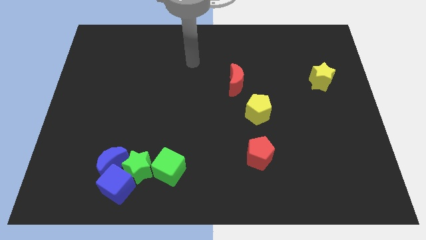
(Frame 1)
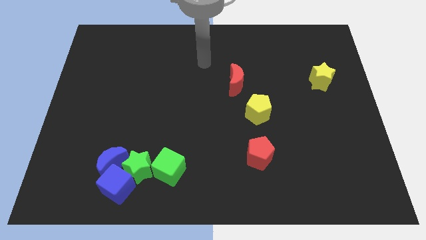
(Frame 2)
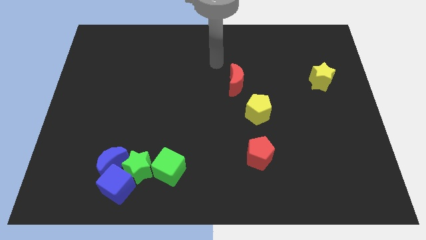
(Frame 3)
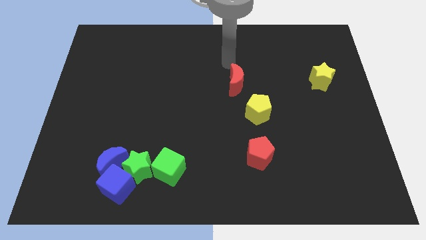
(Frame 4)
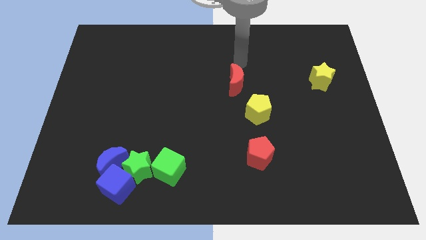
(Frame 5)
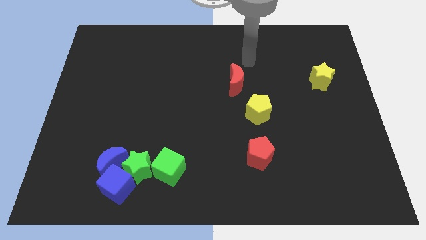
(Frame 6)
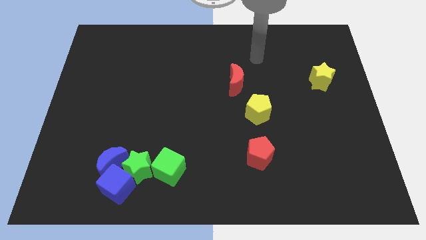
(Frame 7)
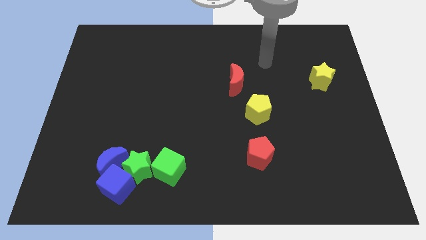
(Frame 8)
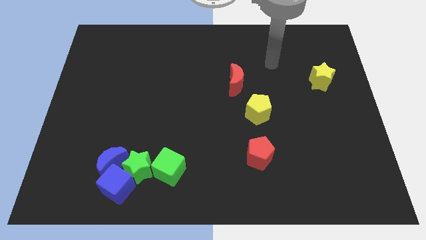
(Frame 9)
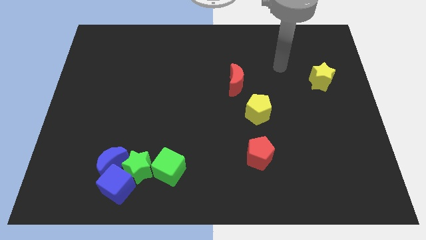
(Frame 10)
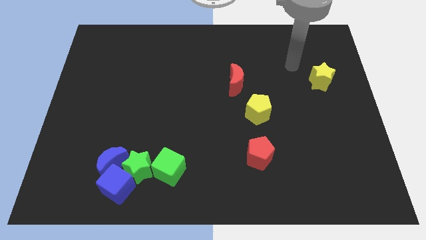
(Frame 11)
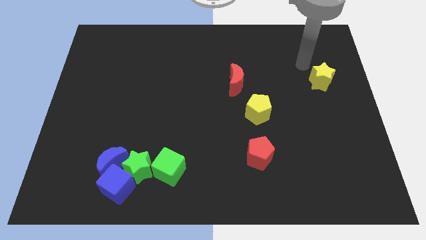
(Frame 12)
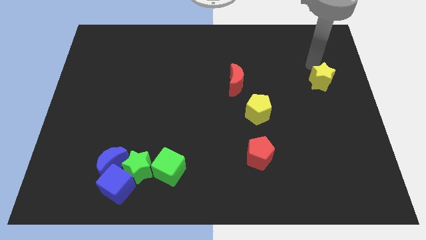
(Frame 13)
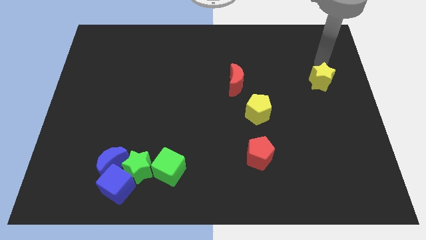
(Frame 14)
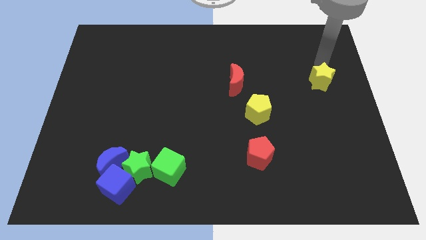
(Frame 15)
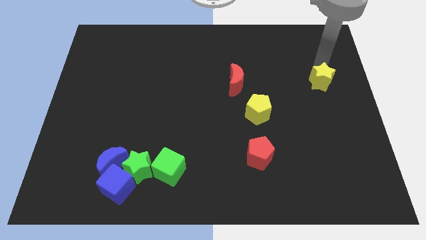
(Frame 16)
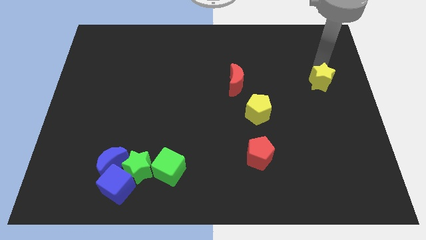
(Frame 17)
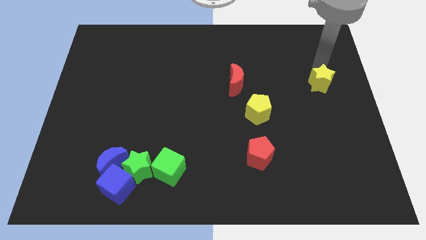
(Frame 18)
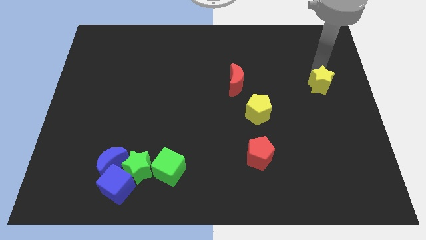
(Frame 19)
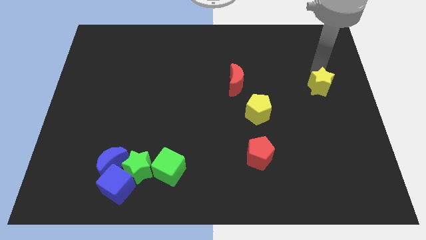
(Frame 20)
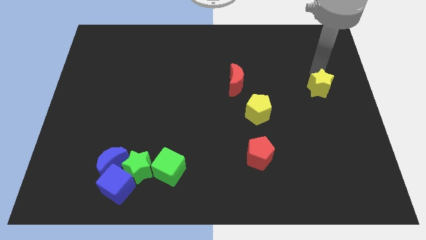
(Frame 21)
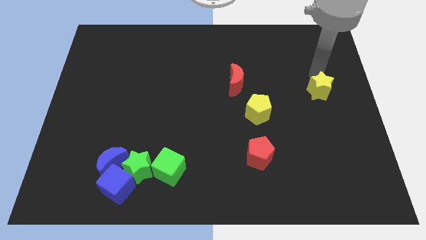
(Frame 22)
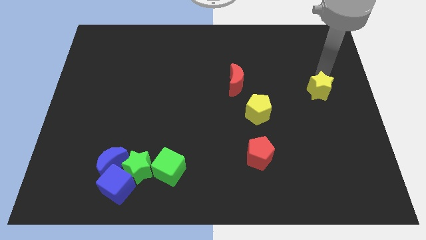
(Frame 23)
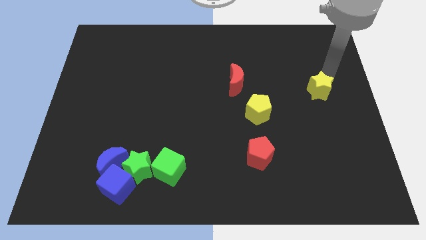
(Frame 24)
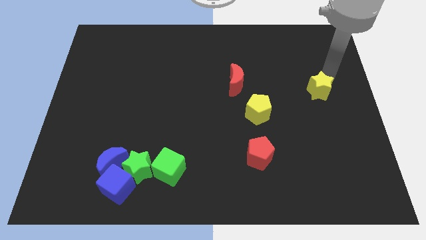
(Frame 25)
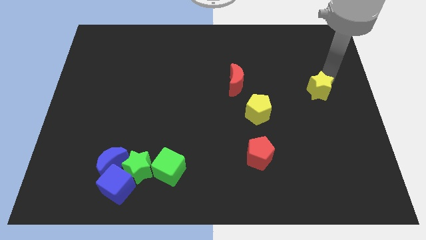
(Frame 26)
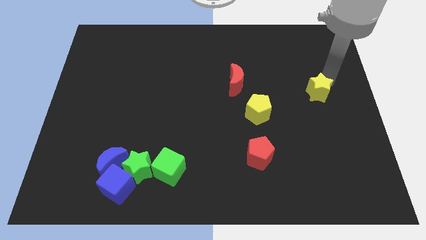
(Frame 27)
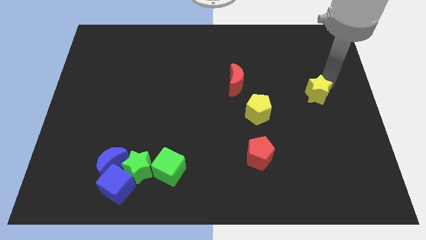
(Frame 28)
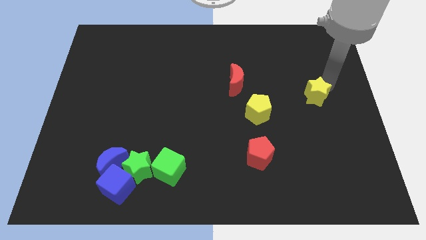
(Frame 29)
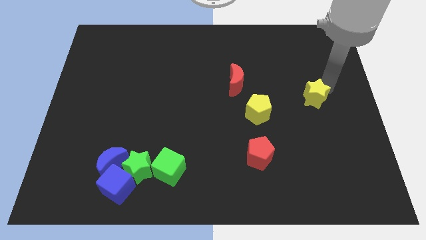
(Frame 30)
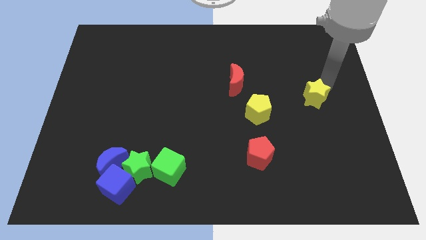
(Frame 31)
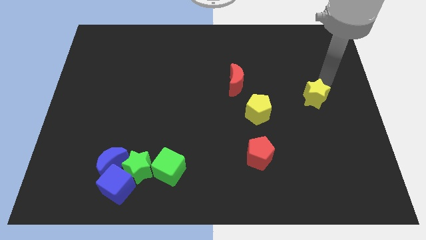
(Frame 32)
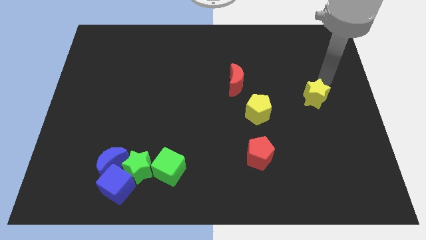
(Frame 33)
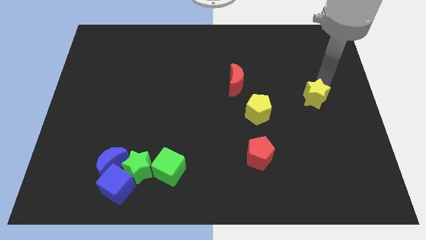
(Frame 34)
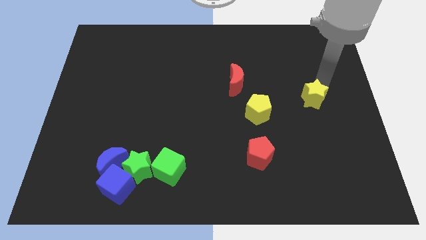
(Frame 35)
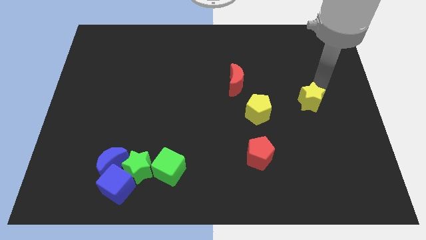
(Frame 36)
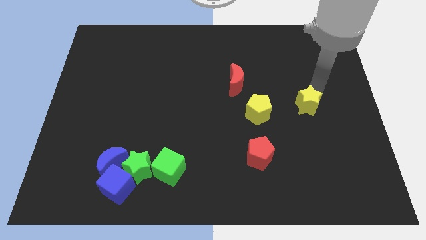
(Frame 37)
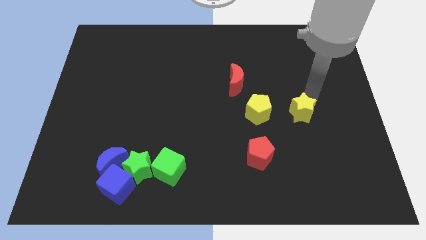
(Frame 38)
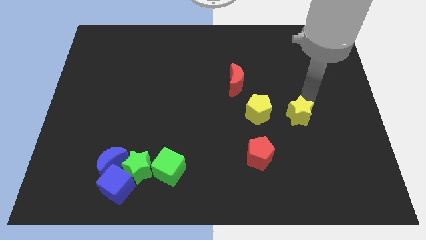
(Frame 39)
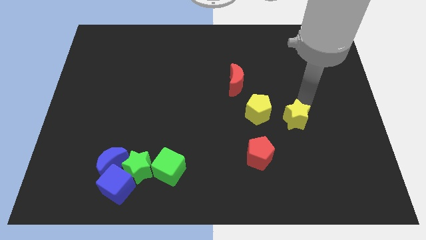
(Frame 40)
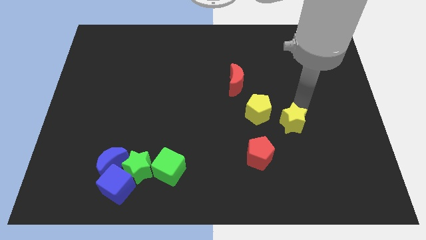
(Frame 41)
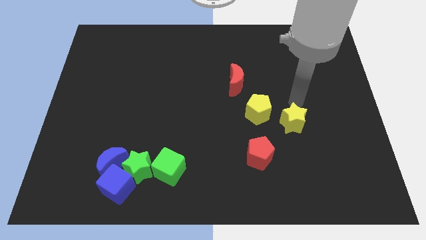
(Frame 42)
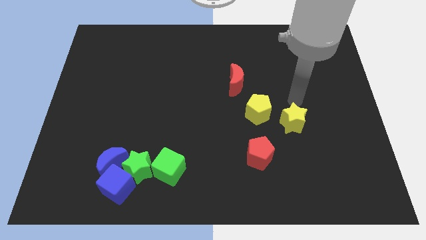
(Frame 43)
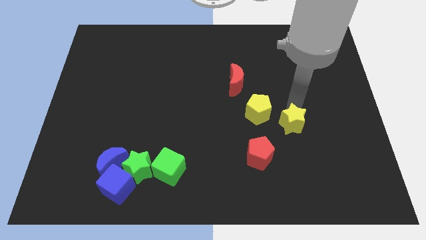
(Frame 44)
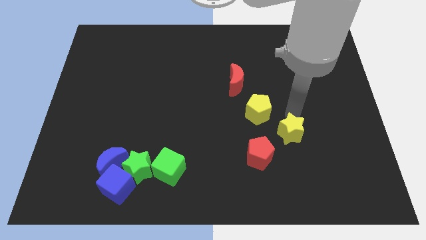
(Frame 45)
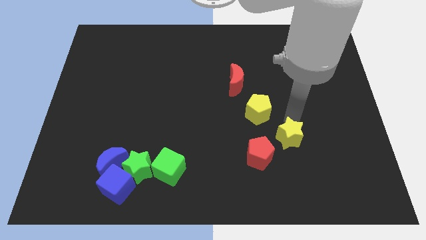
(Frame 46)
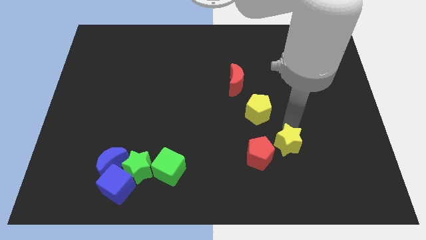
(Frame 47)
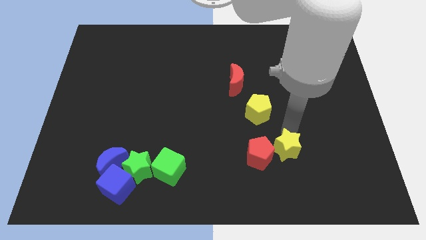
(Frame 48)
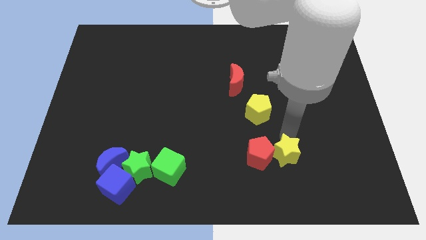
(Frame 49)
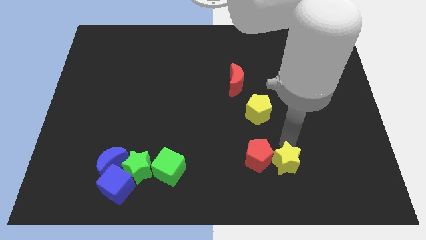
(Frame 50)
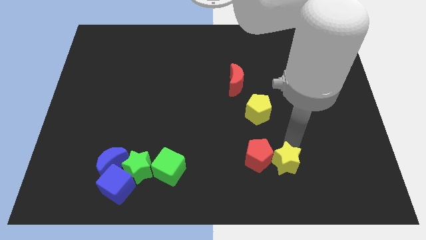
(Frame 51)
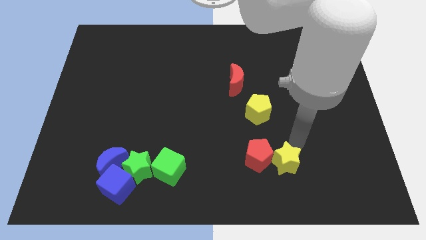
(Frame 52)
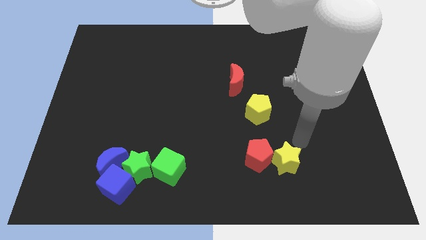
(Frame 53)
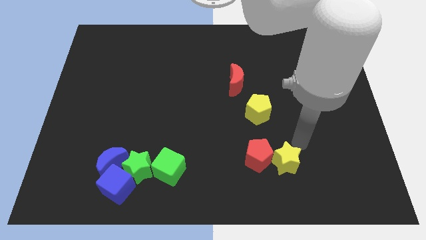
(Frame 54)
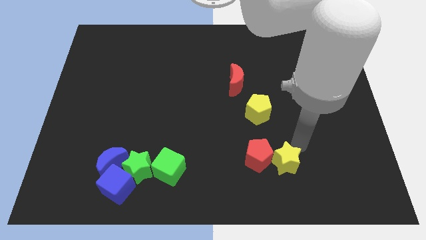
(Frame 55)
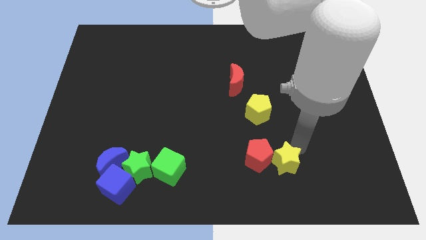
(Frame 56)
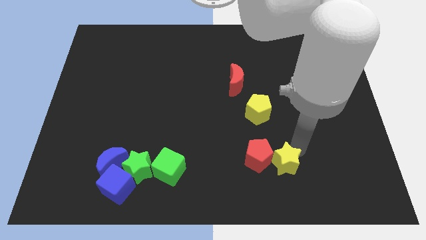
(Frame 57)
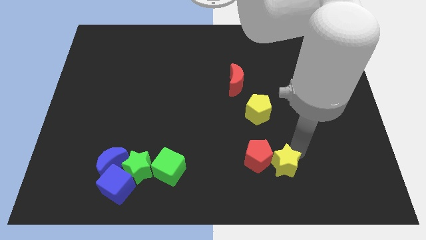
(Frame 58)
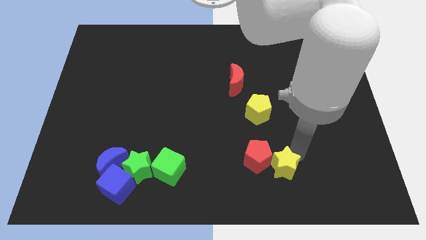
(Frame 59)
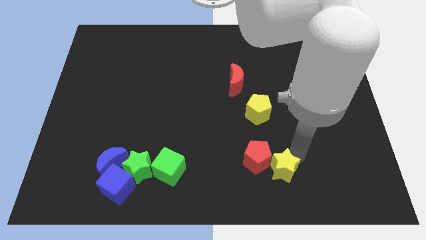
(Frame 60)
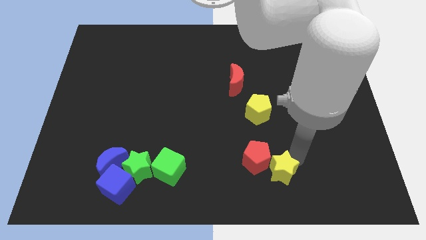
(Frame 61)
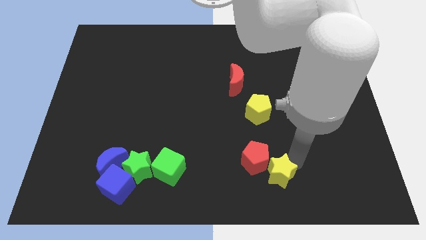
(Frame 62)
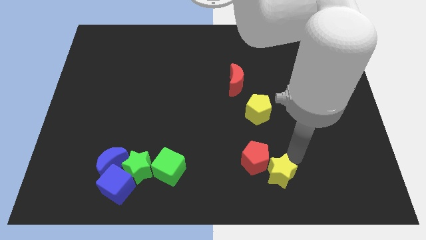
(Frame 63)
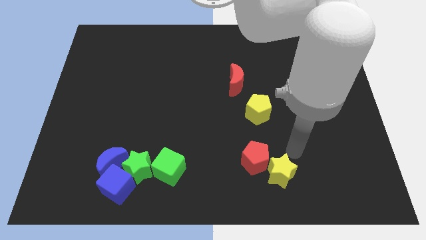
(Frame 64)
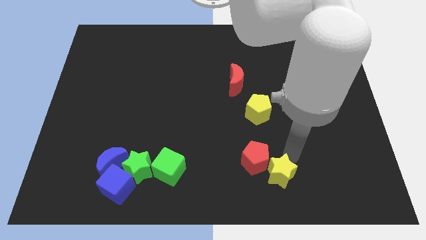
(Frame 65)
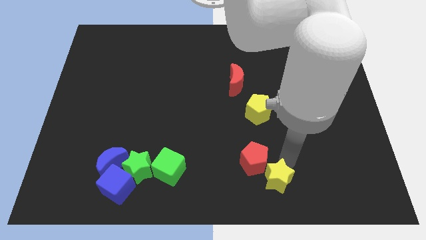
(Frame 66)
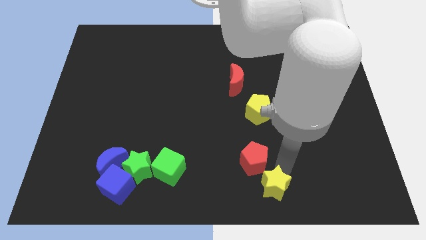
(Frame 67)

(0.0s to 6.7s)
push the yellow star to the bottom
